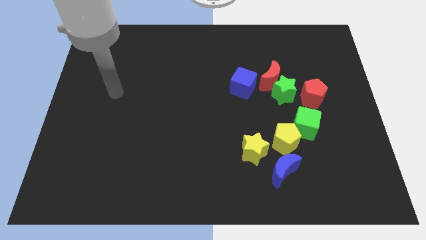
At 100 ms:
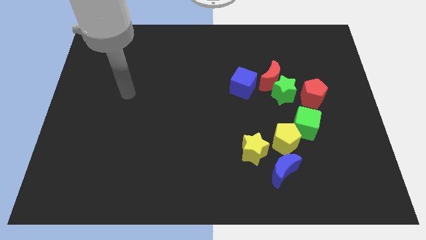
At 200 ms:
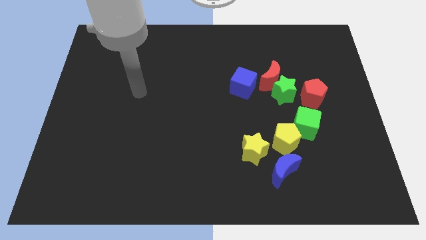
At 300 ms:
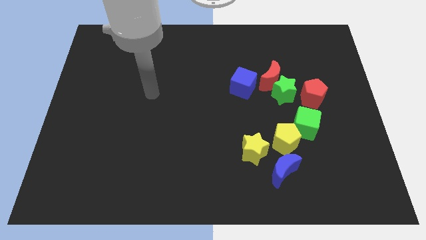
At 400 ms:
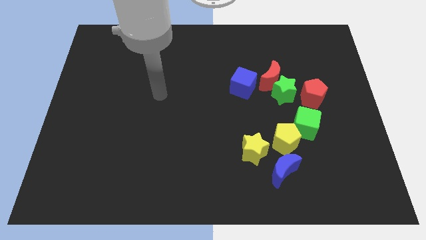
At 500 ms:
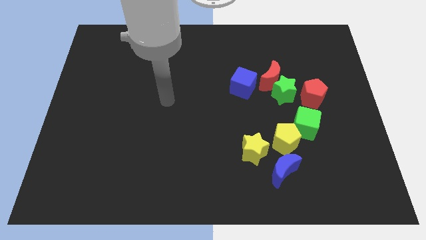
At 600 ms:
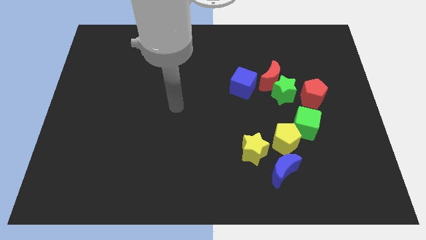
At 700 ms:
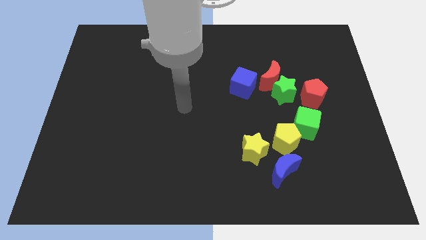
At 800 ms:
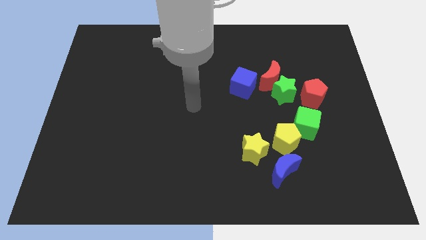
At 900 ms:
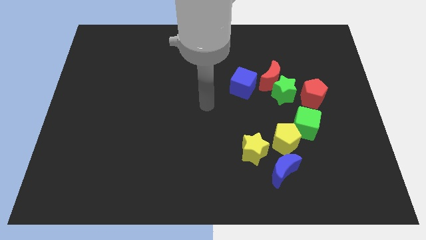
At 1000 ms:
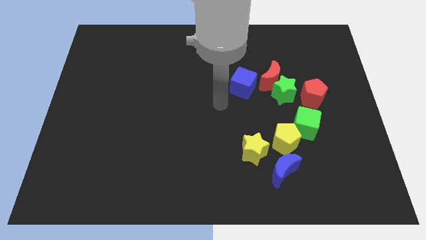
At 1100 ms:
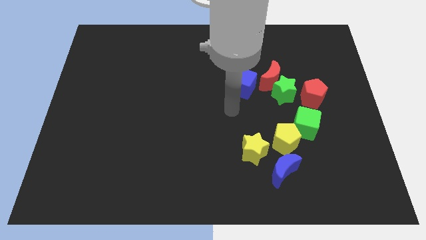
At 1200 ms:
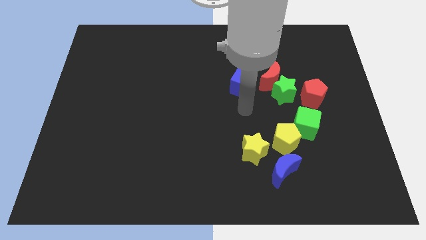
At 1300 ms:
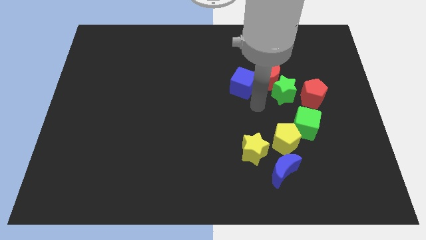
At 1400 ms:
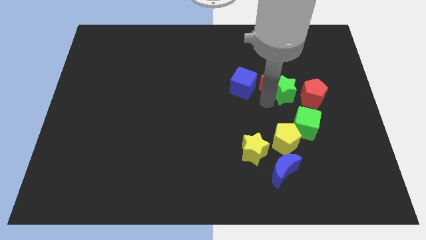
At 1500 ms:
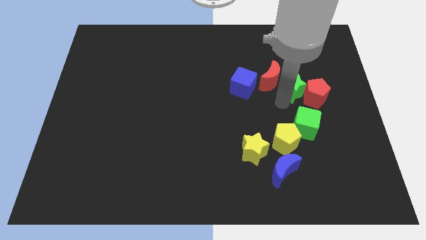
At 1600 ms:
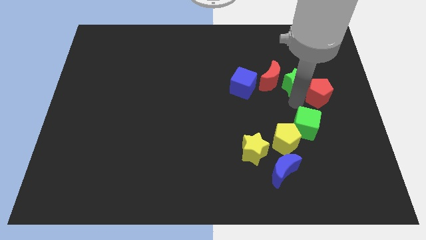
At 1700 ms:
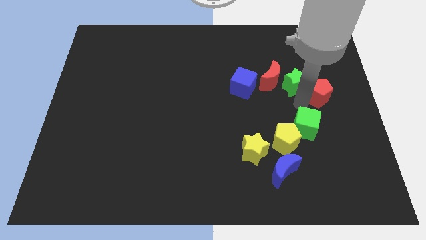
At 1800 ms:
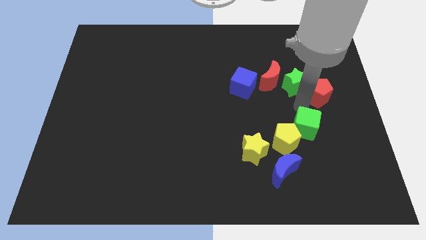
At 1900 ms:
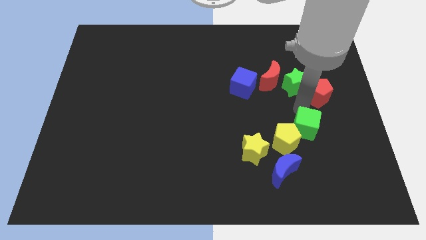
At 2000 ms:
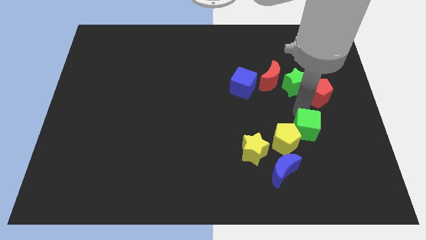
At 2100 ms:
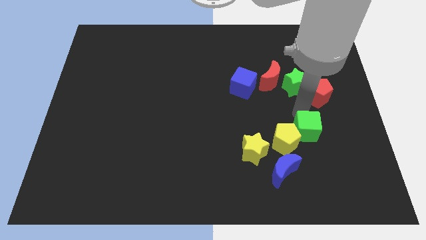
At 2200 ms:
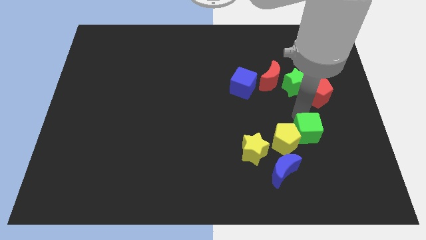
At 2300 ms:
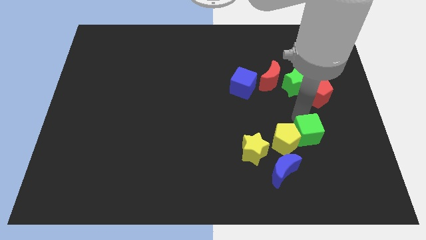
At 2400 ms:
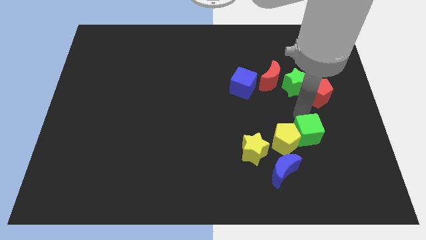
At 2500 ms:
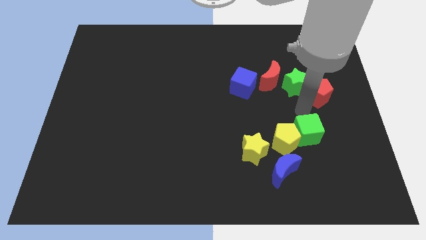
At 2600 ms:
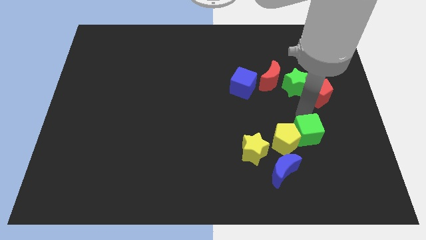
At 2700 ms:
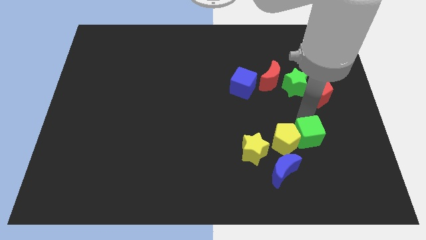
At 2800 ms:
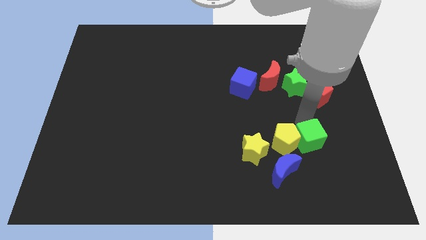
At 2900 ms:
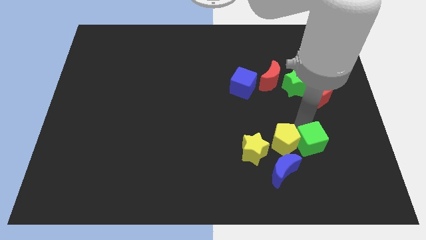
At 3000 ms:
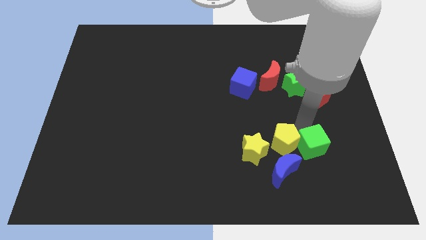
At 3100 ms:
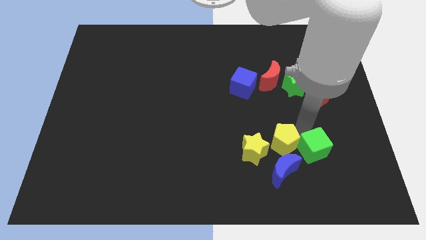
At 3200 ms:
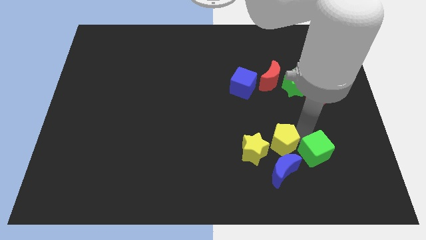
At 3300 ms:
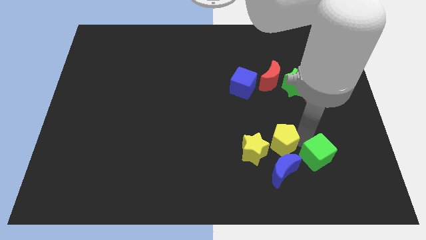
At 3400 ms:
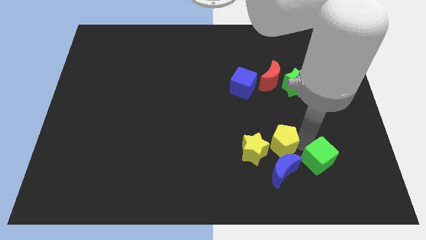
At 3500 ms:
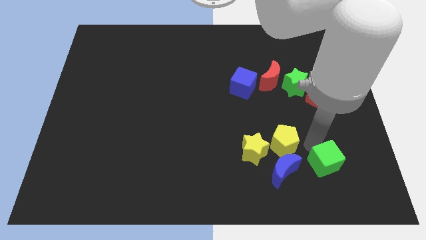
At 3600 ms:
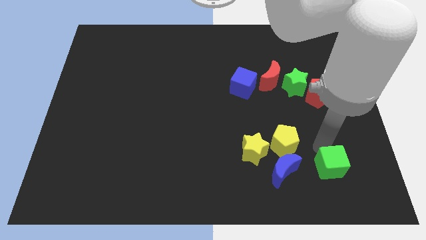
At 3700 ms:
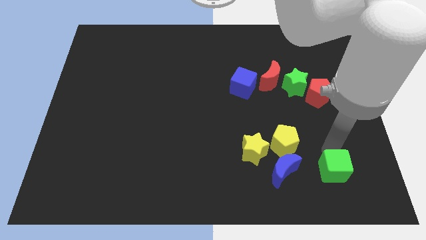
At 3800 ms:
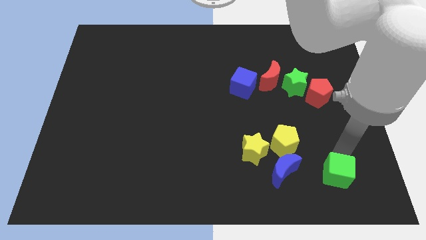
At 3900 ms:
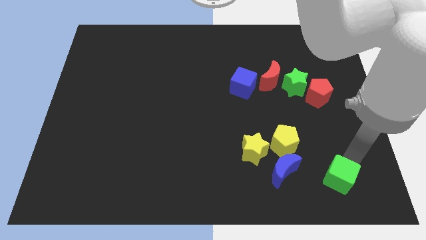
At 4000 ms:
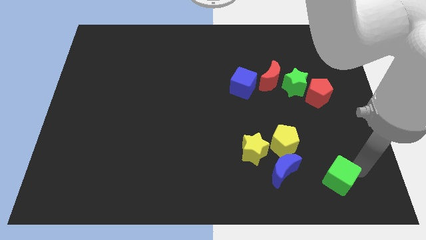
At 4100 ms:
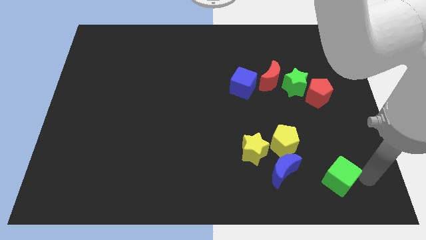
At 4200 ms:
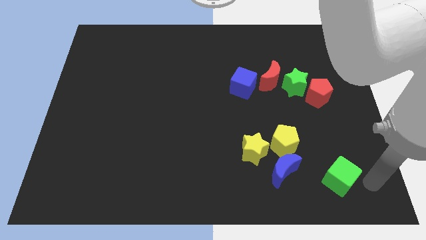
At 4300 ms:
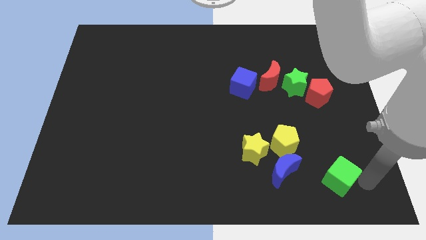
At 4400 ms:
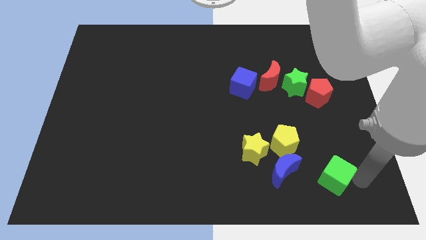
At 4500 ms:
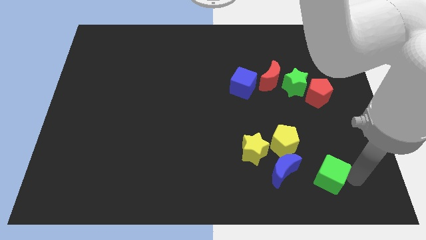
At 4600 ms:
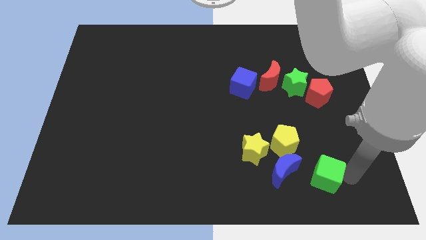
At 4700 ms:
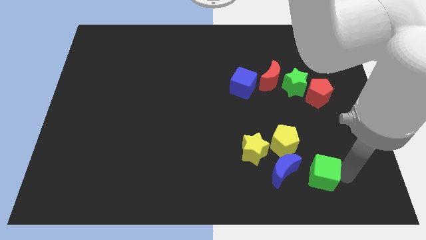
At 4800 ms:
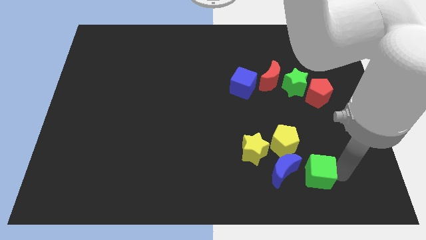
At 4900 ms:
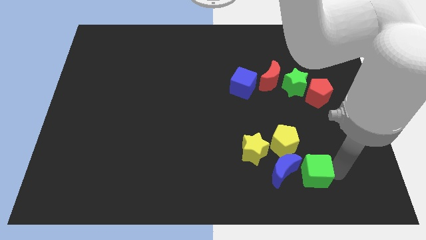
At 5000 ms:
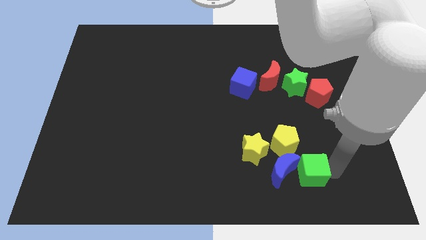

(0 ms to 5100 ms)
put the green cube next to the blue moon

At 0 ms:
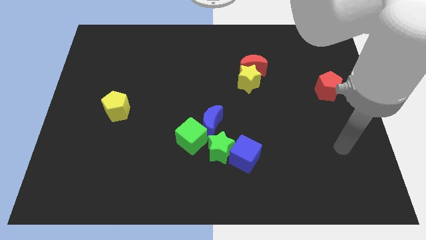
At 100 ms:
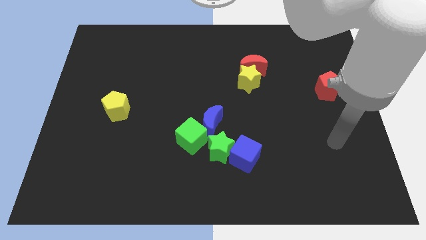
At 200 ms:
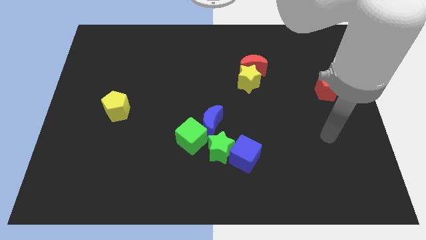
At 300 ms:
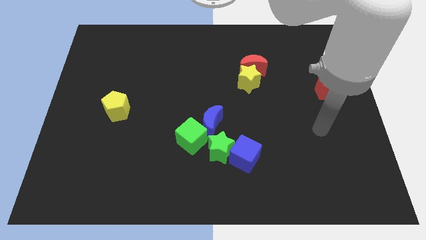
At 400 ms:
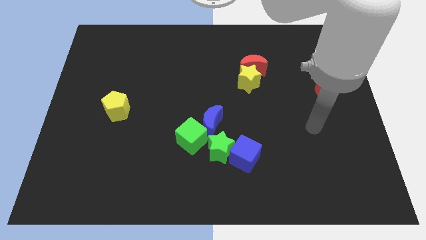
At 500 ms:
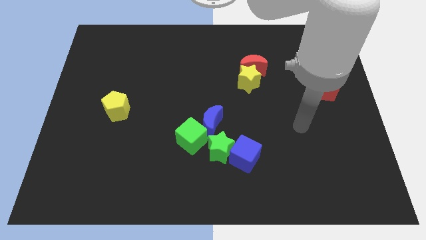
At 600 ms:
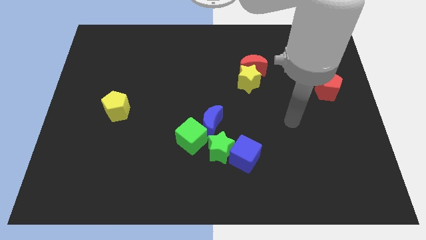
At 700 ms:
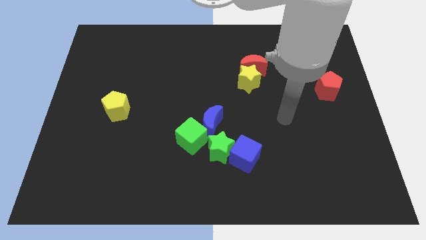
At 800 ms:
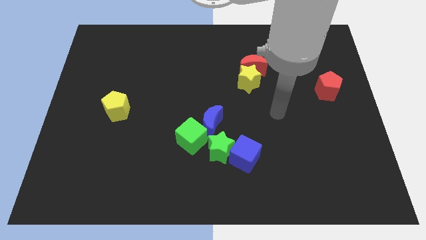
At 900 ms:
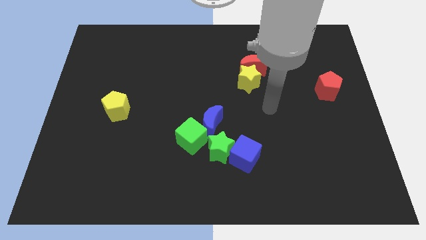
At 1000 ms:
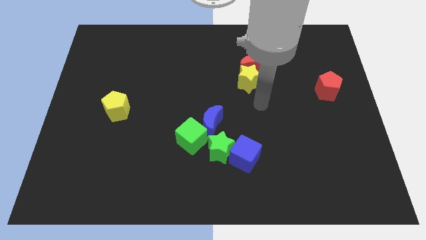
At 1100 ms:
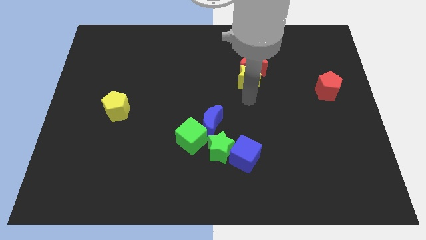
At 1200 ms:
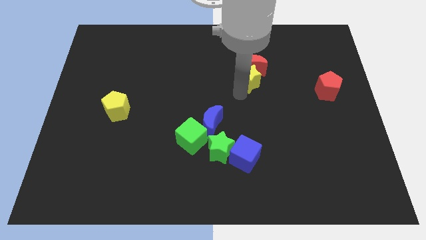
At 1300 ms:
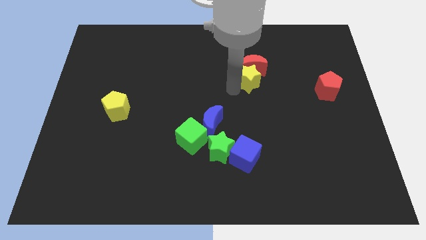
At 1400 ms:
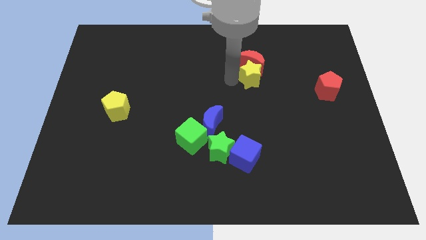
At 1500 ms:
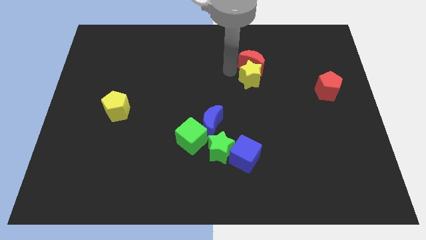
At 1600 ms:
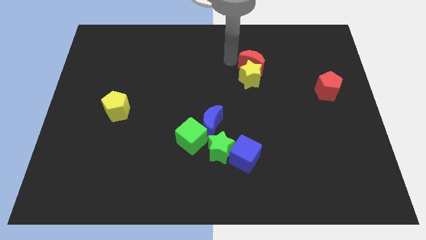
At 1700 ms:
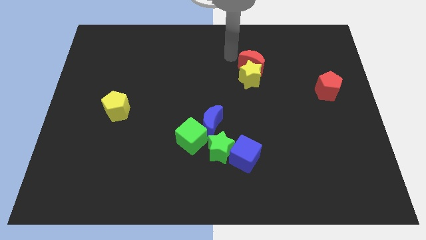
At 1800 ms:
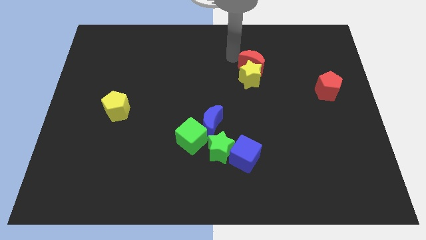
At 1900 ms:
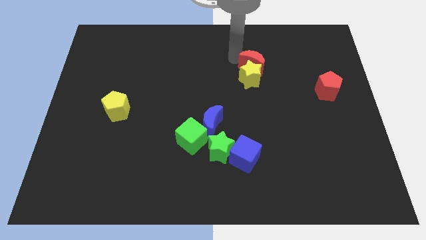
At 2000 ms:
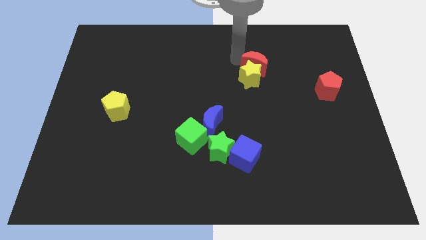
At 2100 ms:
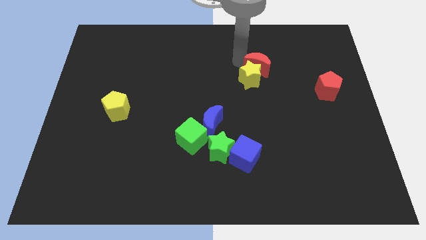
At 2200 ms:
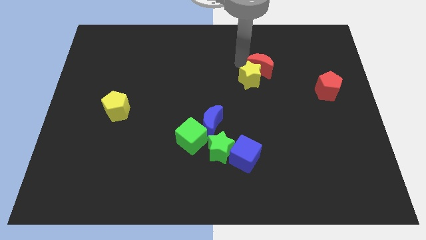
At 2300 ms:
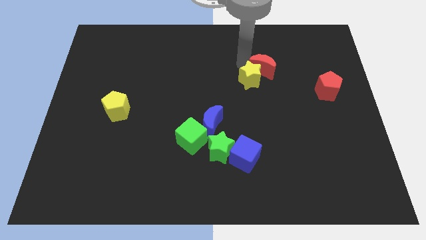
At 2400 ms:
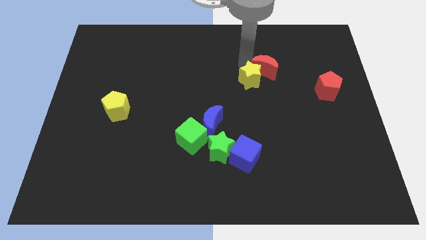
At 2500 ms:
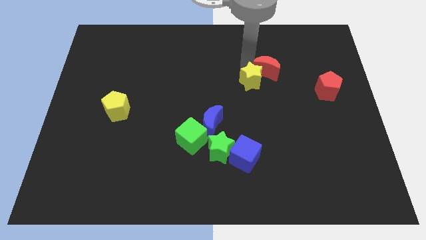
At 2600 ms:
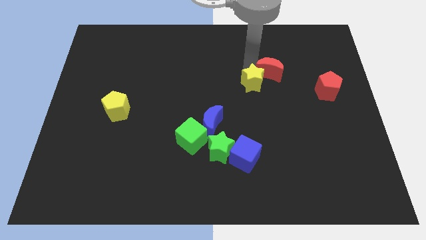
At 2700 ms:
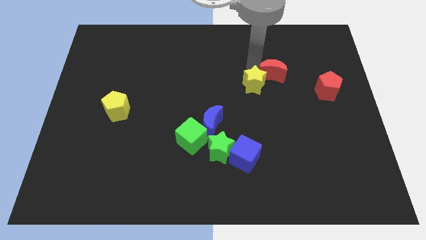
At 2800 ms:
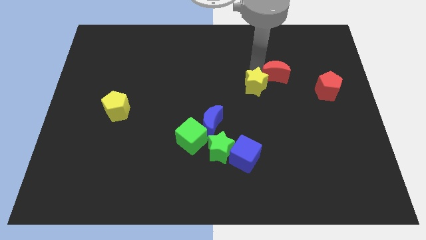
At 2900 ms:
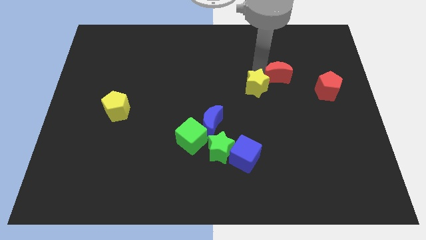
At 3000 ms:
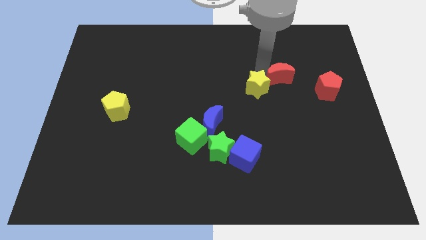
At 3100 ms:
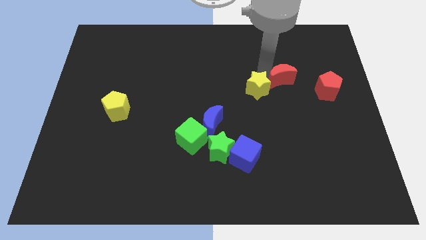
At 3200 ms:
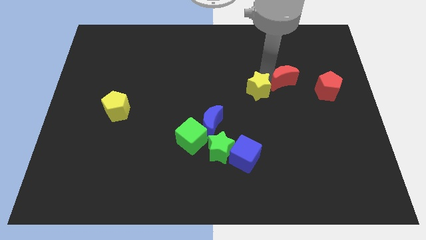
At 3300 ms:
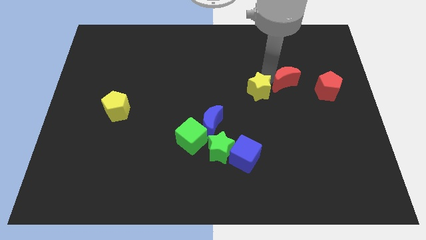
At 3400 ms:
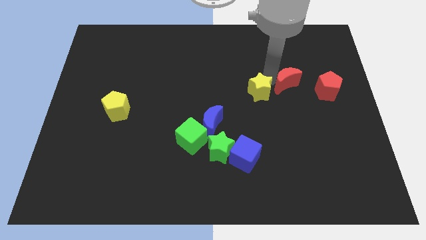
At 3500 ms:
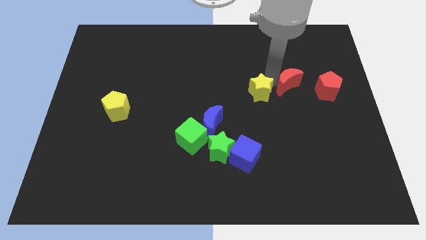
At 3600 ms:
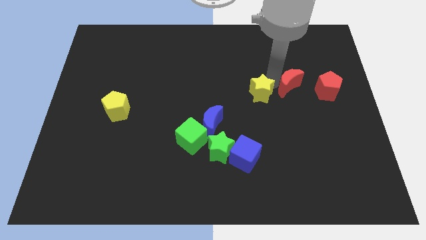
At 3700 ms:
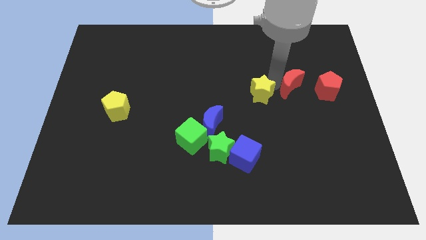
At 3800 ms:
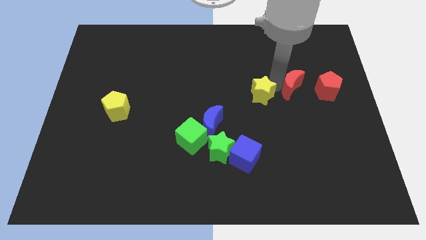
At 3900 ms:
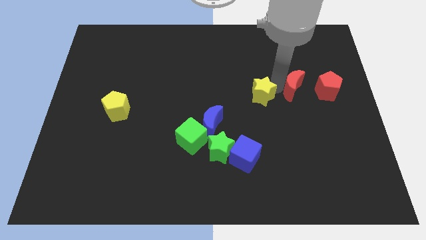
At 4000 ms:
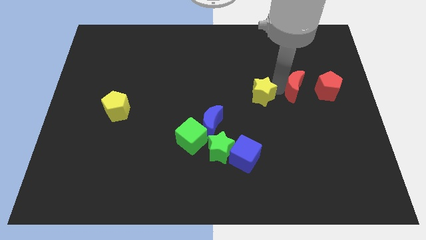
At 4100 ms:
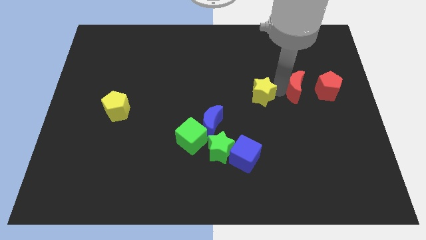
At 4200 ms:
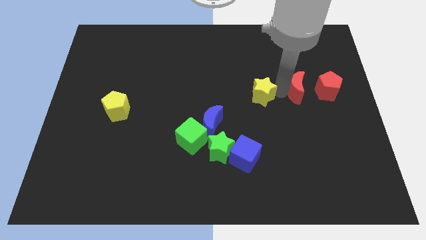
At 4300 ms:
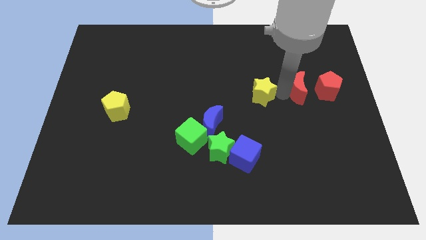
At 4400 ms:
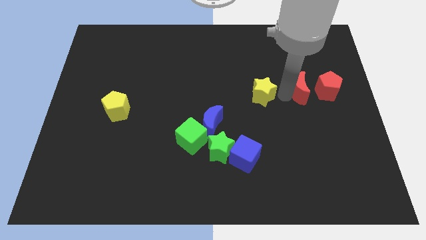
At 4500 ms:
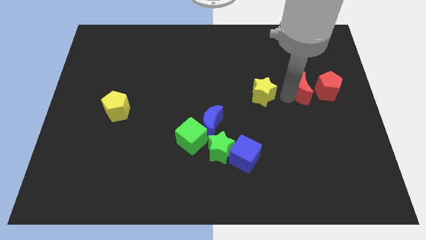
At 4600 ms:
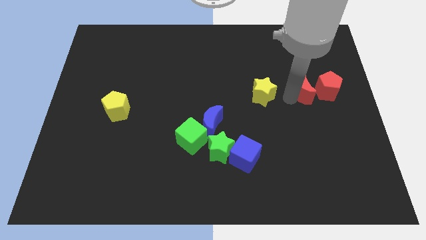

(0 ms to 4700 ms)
slide the red moon to the red pentagon
